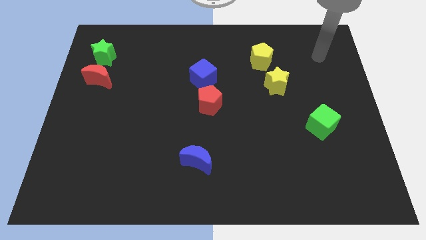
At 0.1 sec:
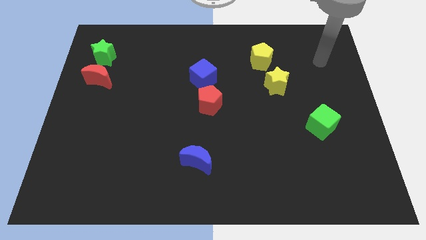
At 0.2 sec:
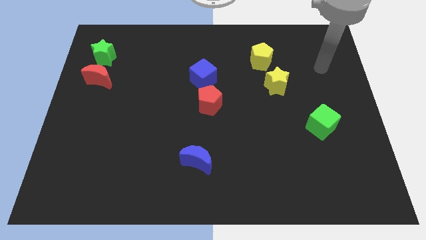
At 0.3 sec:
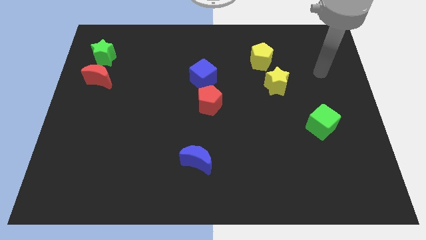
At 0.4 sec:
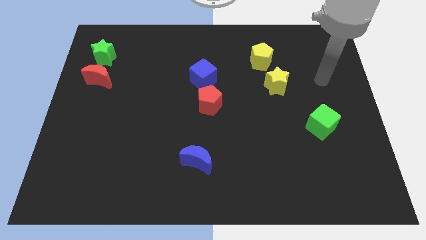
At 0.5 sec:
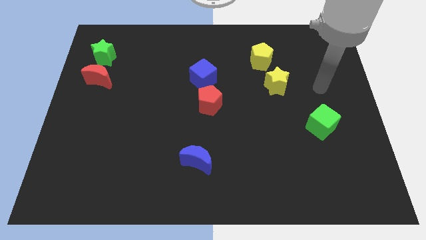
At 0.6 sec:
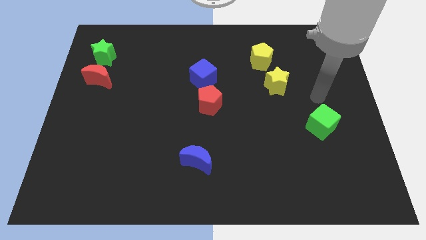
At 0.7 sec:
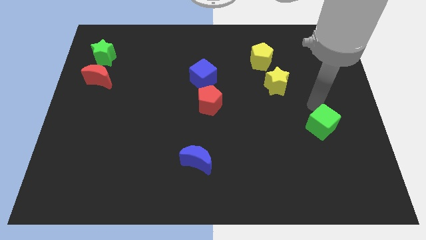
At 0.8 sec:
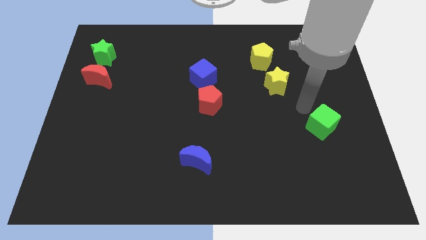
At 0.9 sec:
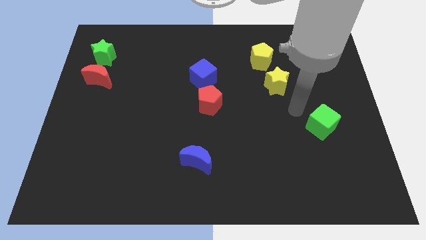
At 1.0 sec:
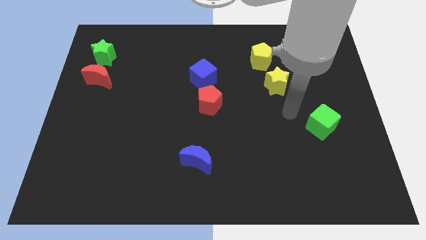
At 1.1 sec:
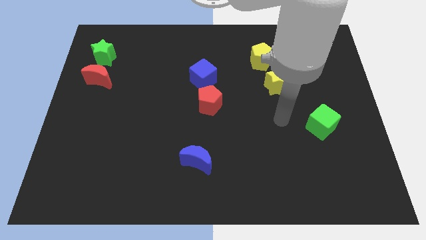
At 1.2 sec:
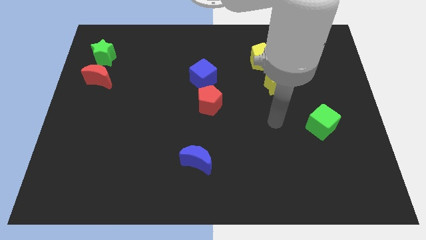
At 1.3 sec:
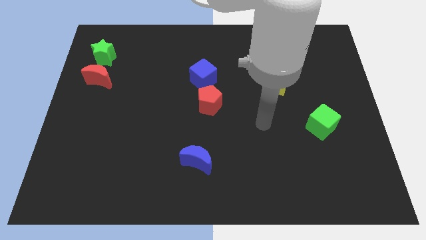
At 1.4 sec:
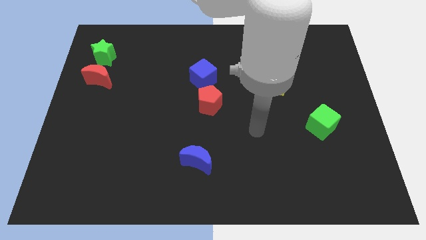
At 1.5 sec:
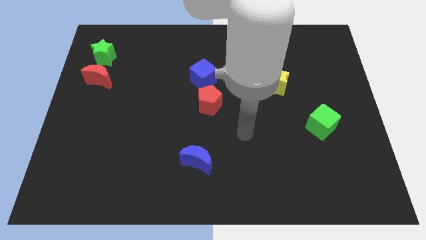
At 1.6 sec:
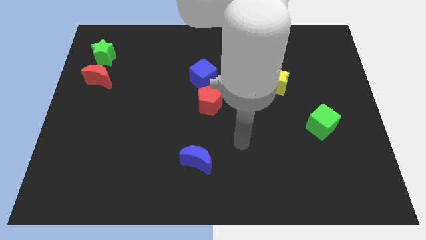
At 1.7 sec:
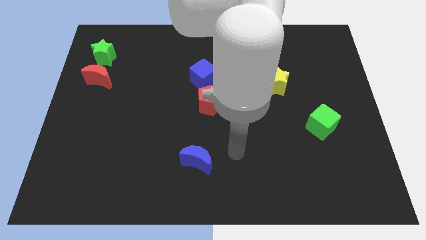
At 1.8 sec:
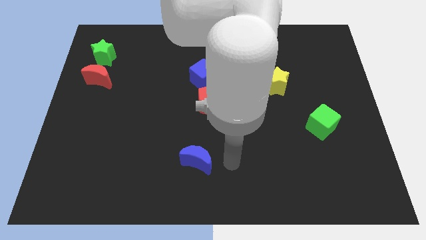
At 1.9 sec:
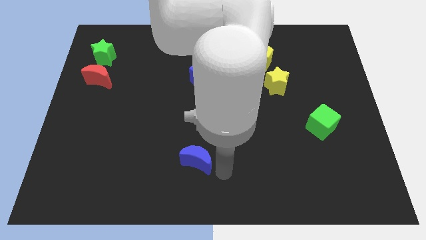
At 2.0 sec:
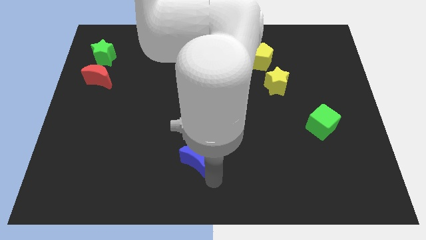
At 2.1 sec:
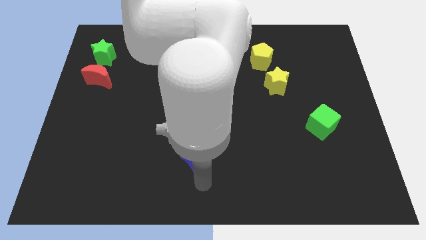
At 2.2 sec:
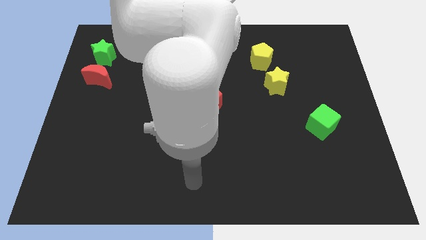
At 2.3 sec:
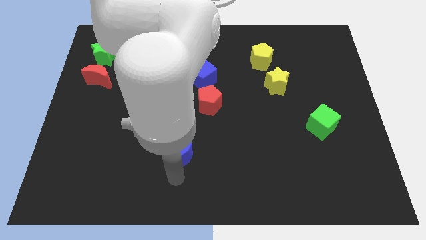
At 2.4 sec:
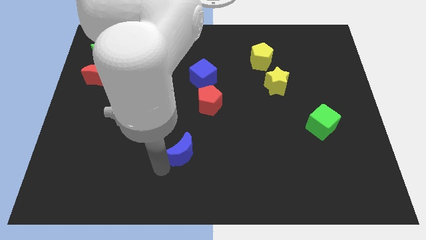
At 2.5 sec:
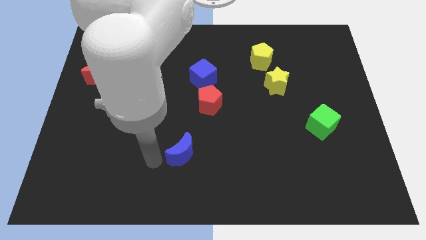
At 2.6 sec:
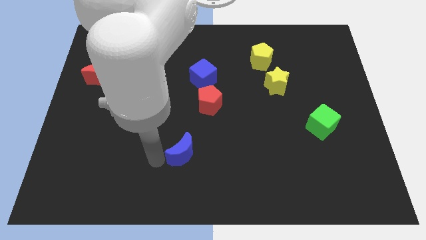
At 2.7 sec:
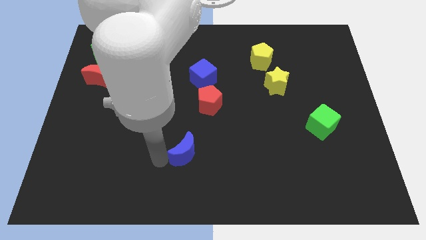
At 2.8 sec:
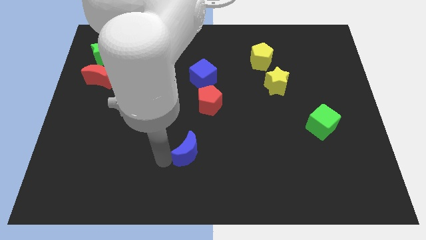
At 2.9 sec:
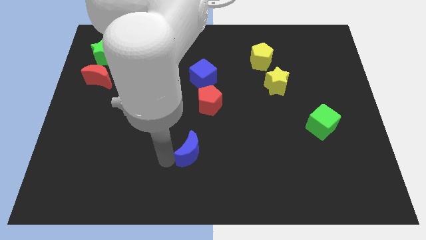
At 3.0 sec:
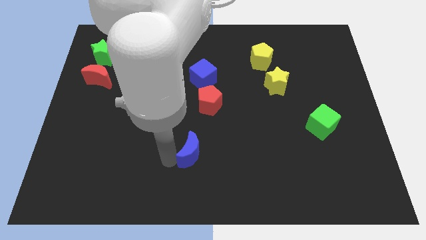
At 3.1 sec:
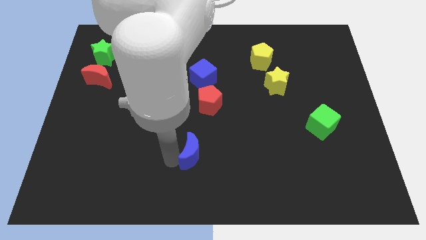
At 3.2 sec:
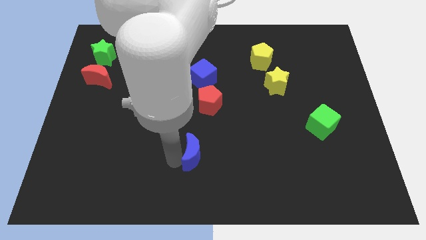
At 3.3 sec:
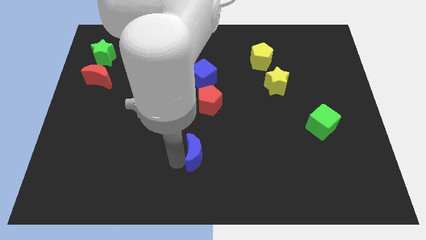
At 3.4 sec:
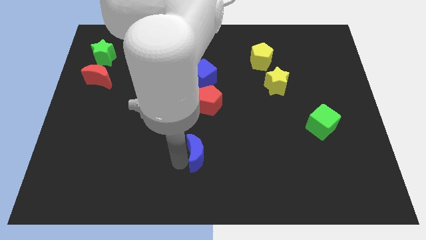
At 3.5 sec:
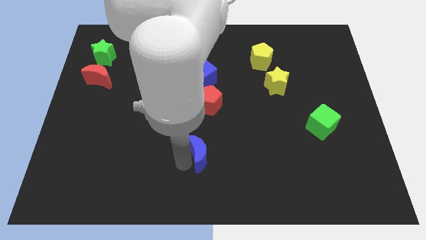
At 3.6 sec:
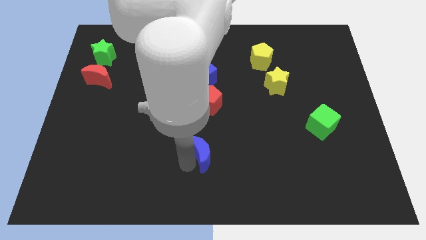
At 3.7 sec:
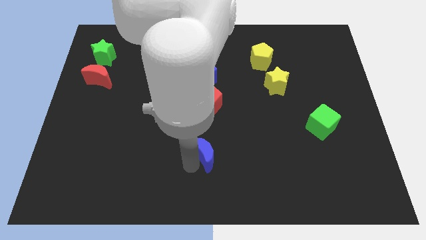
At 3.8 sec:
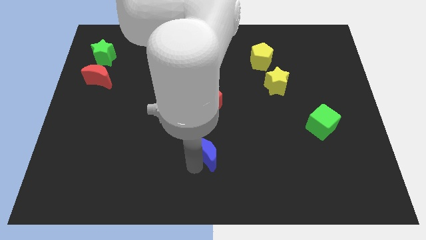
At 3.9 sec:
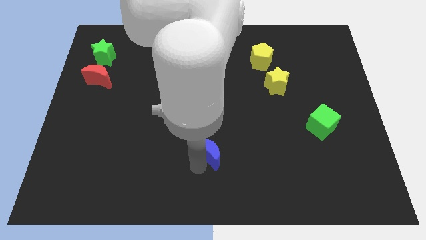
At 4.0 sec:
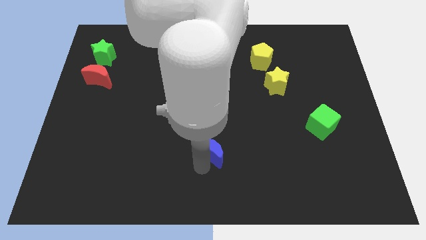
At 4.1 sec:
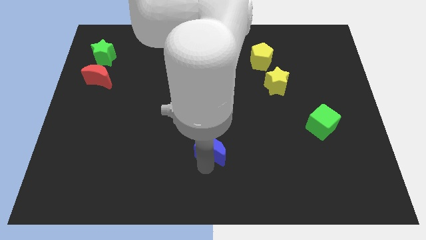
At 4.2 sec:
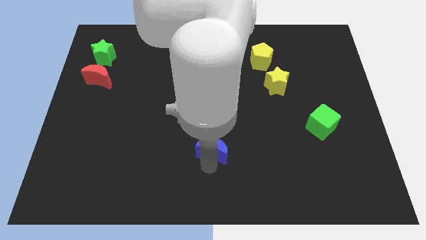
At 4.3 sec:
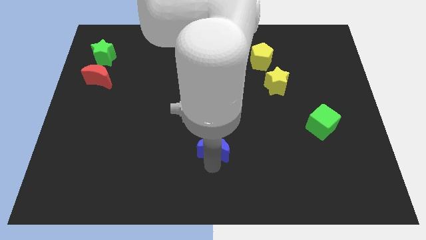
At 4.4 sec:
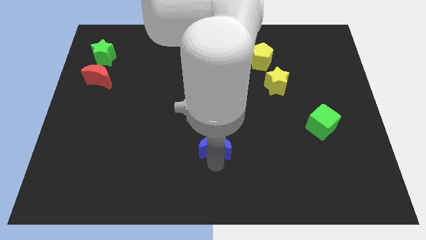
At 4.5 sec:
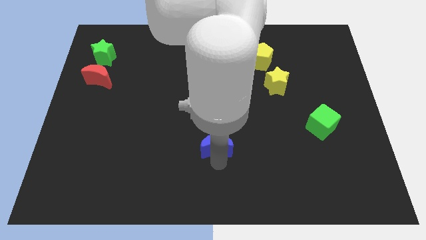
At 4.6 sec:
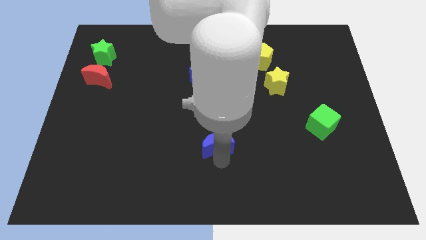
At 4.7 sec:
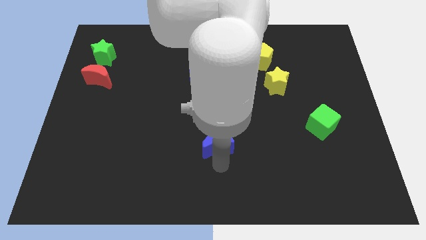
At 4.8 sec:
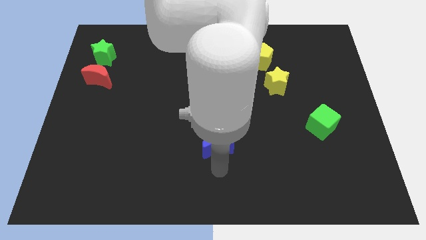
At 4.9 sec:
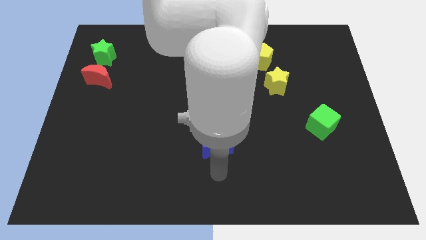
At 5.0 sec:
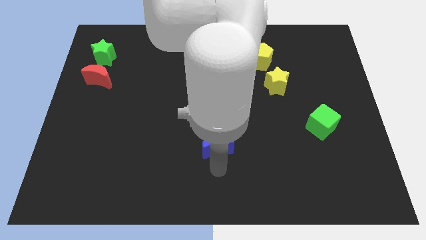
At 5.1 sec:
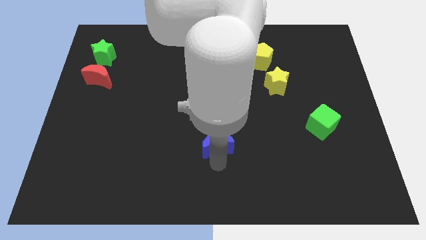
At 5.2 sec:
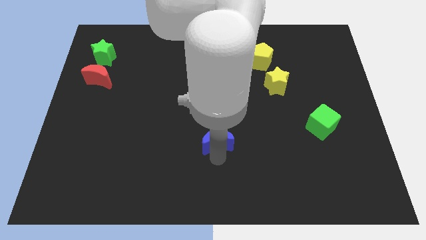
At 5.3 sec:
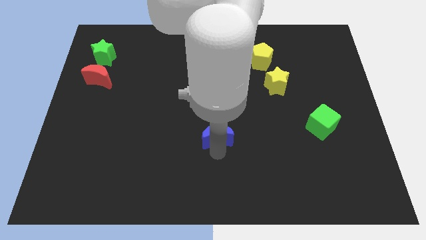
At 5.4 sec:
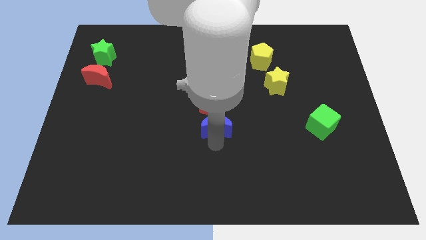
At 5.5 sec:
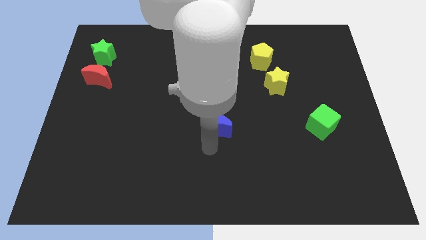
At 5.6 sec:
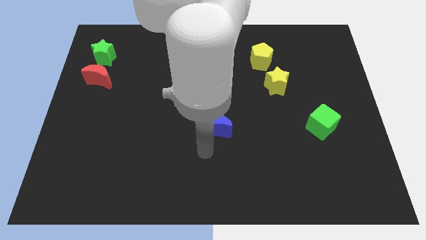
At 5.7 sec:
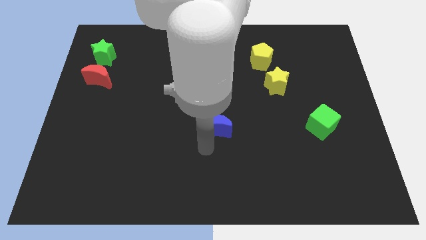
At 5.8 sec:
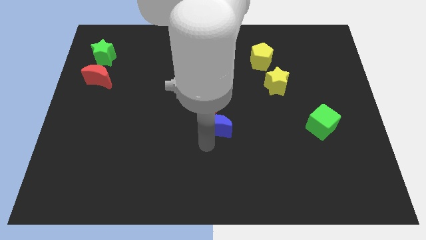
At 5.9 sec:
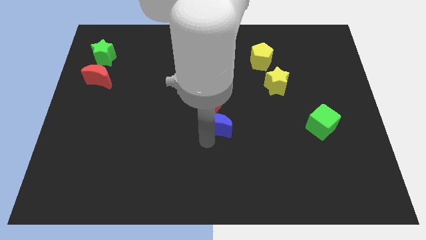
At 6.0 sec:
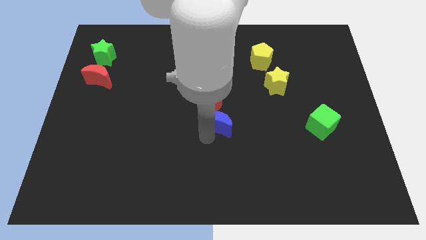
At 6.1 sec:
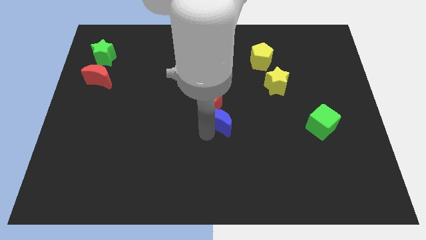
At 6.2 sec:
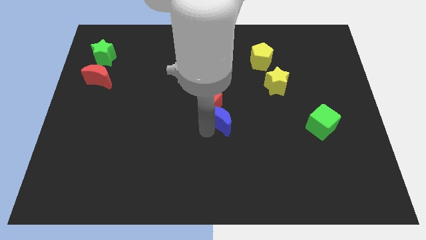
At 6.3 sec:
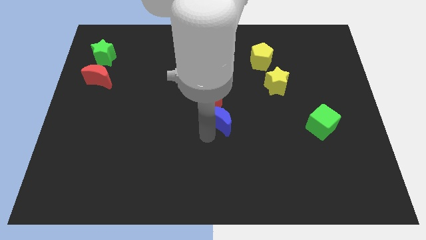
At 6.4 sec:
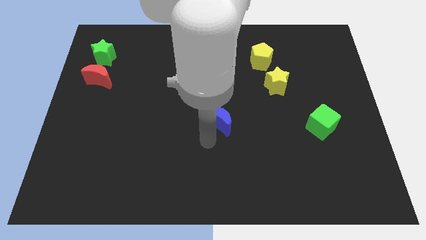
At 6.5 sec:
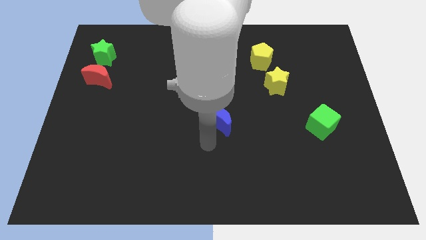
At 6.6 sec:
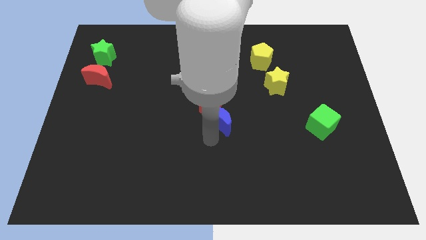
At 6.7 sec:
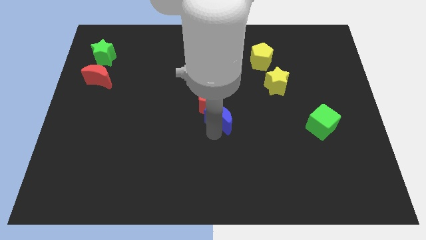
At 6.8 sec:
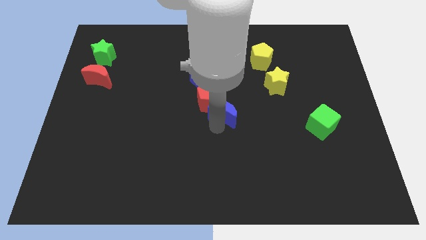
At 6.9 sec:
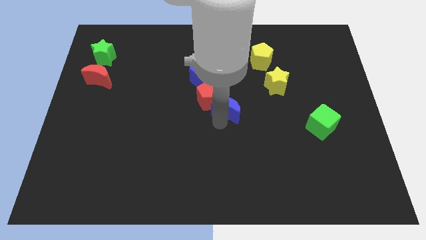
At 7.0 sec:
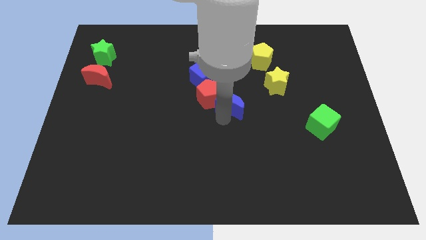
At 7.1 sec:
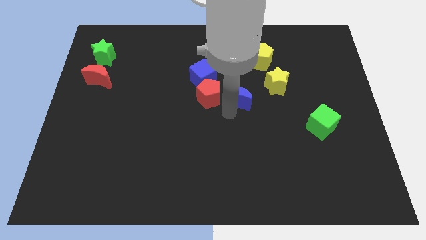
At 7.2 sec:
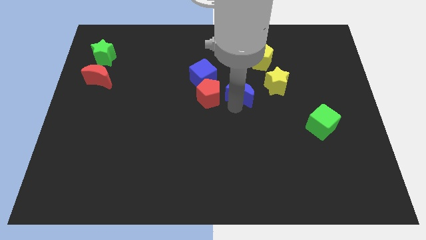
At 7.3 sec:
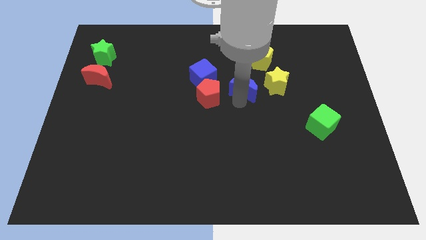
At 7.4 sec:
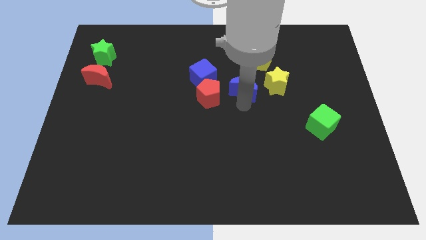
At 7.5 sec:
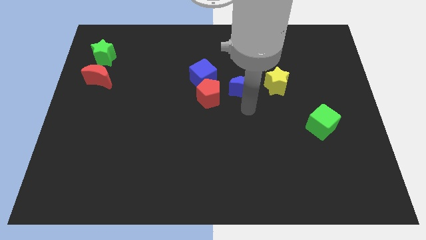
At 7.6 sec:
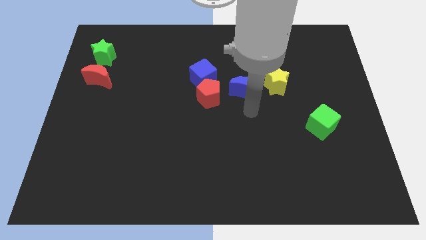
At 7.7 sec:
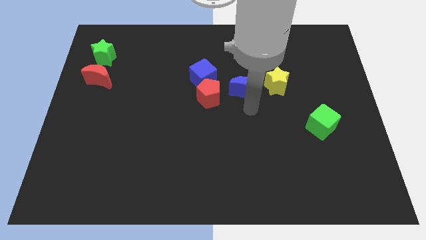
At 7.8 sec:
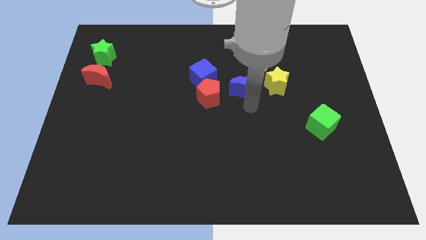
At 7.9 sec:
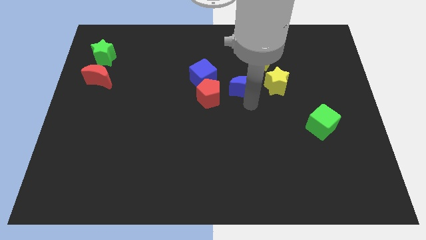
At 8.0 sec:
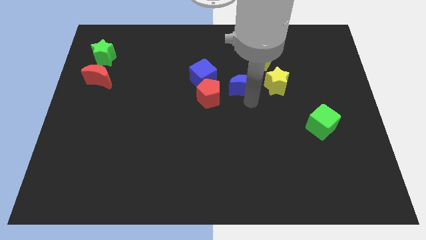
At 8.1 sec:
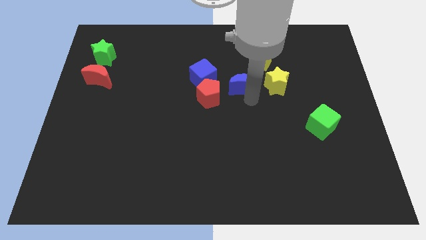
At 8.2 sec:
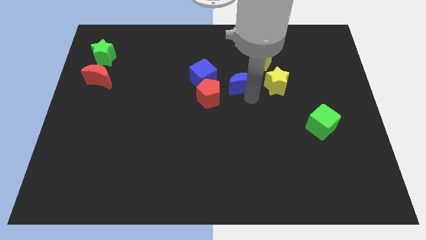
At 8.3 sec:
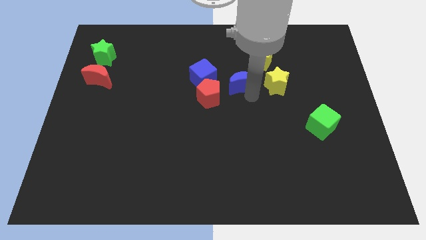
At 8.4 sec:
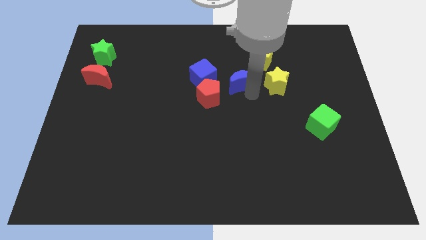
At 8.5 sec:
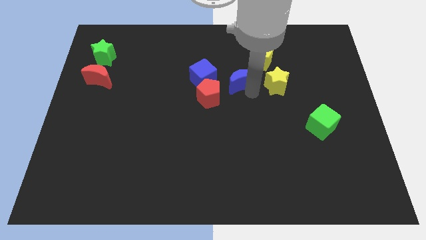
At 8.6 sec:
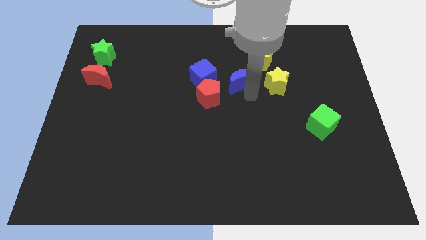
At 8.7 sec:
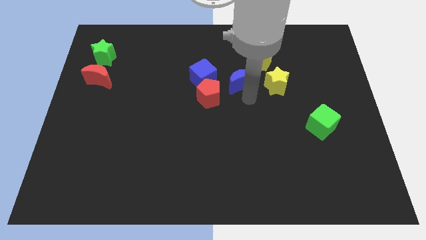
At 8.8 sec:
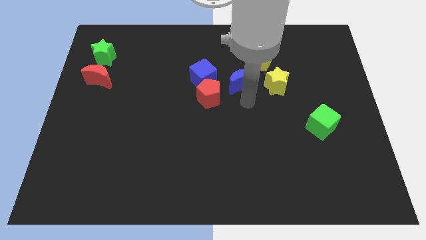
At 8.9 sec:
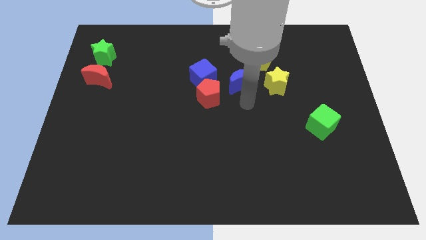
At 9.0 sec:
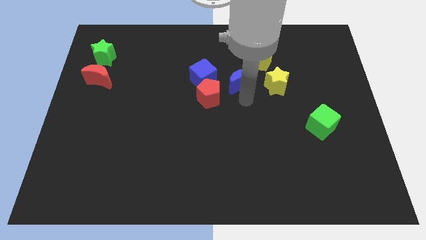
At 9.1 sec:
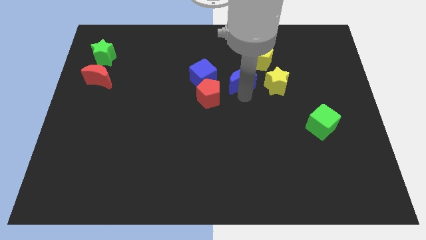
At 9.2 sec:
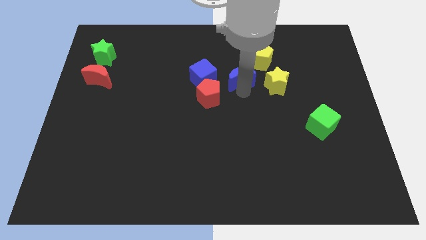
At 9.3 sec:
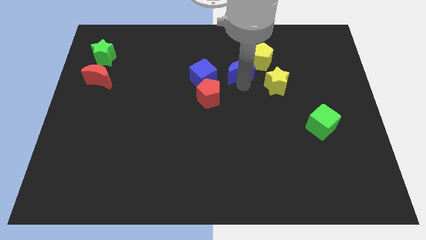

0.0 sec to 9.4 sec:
put the blue moon to the left side of the yellow pentagon
